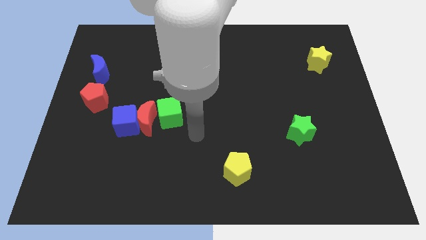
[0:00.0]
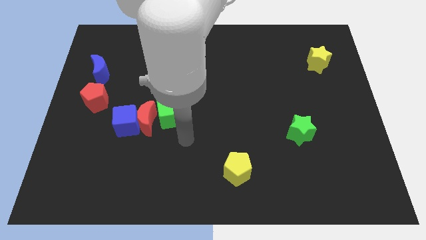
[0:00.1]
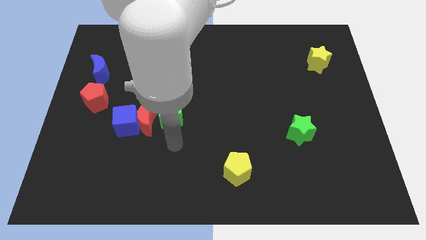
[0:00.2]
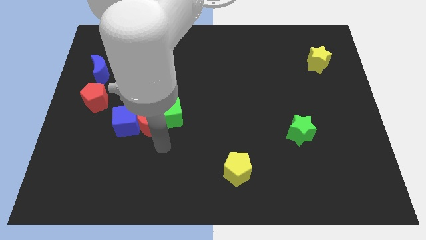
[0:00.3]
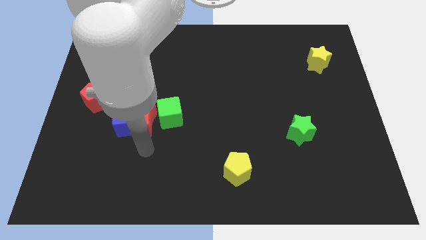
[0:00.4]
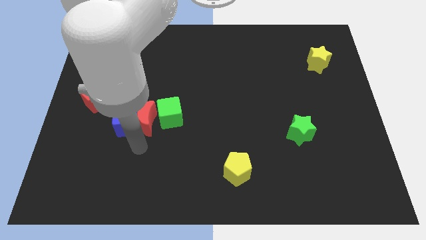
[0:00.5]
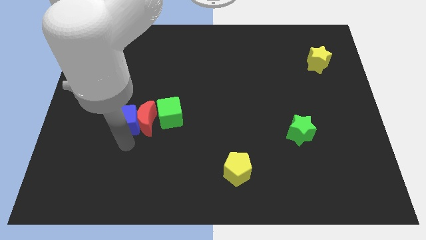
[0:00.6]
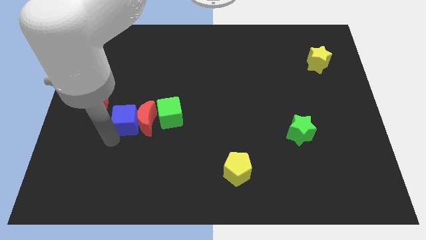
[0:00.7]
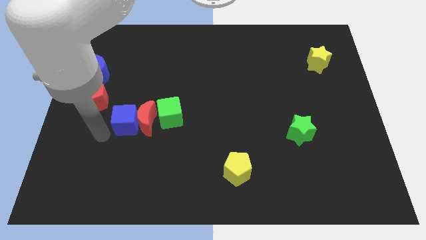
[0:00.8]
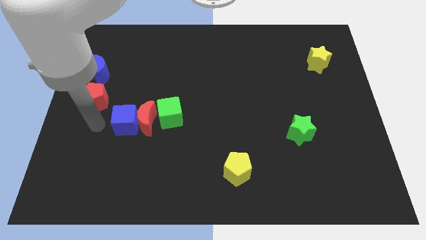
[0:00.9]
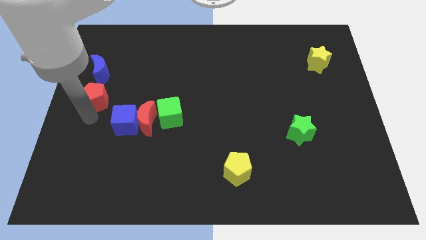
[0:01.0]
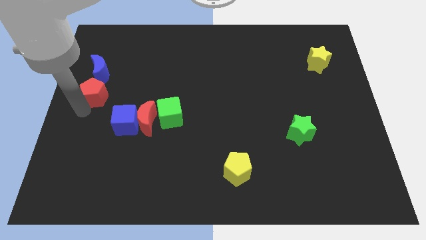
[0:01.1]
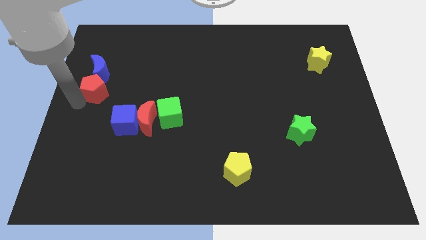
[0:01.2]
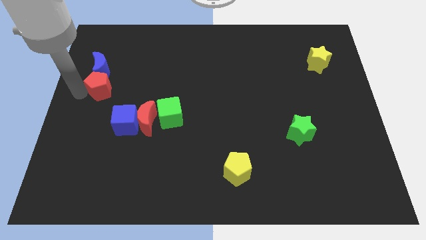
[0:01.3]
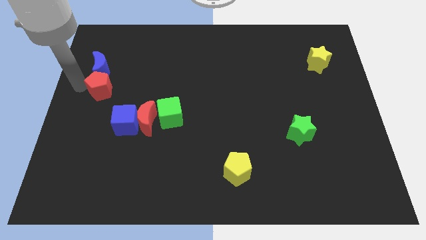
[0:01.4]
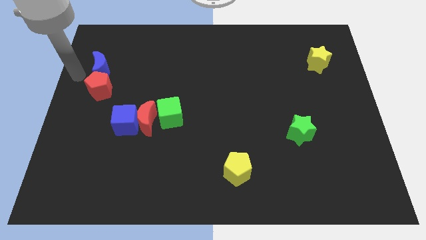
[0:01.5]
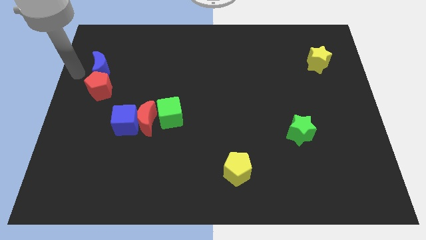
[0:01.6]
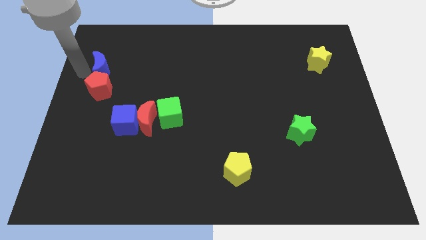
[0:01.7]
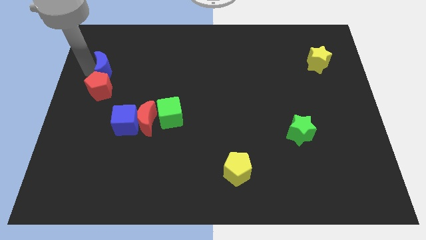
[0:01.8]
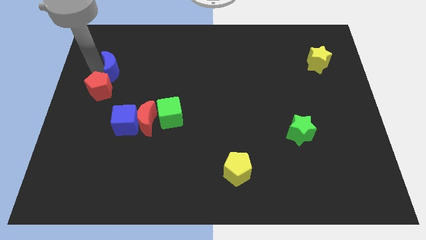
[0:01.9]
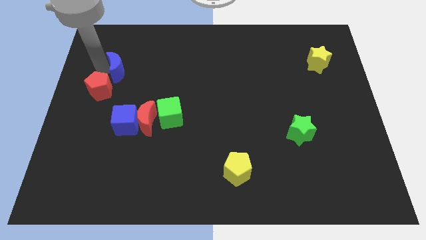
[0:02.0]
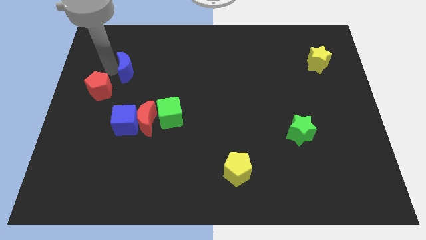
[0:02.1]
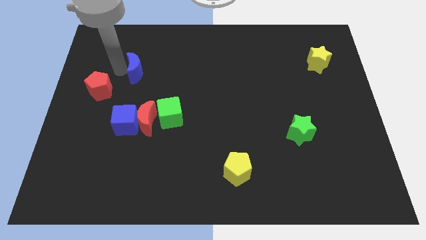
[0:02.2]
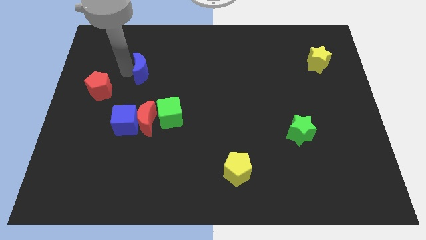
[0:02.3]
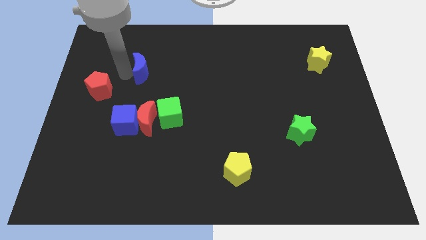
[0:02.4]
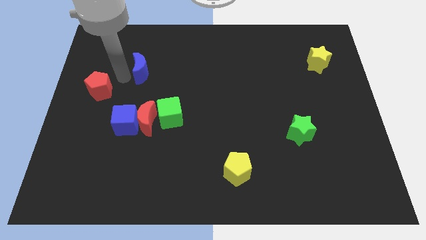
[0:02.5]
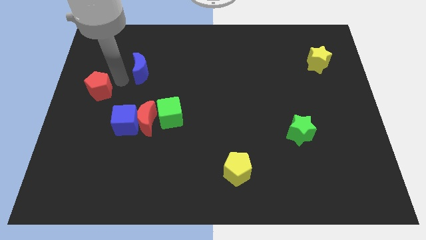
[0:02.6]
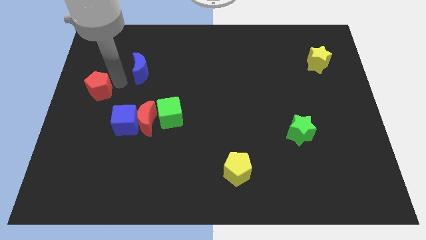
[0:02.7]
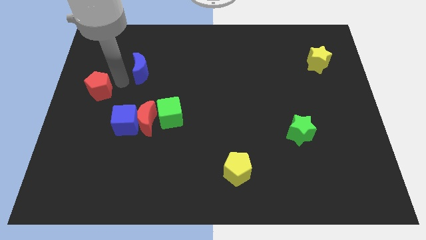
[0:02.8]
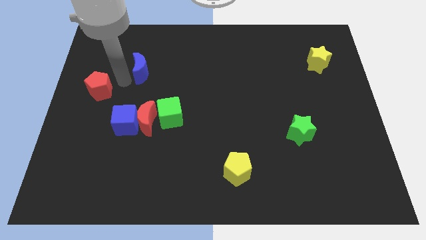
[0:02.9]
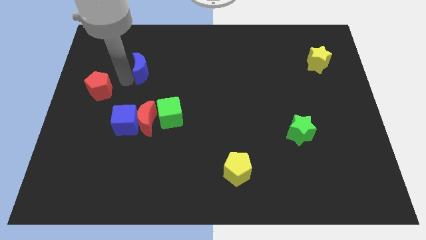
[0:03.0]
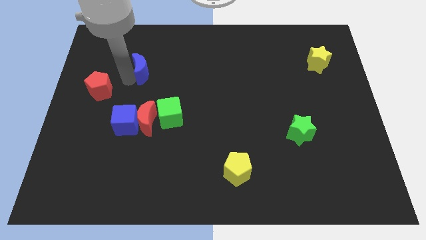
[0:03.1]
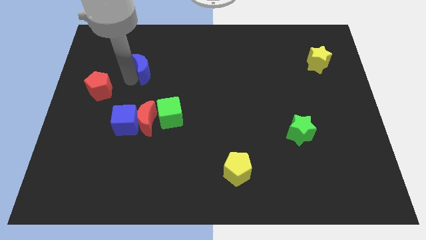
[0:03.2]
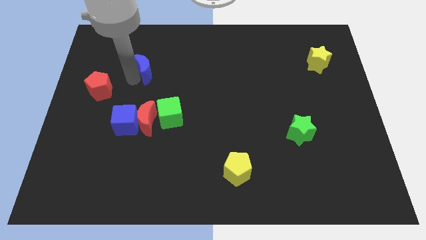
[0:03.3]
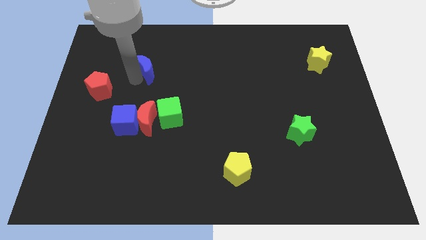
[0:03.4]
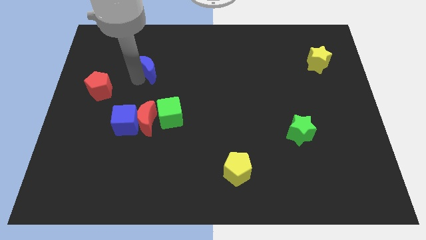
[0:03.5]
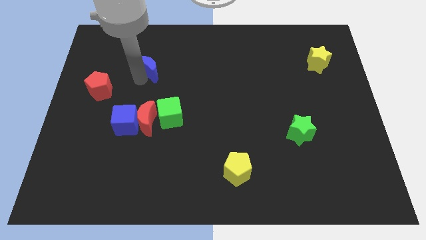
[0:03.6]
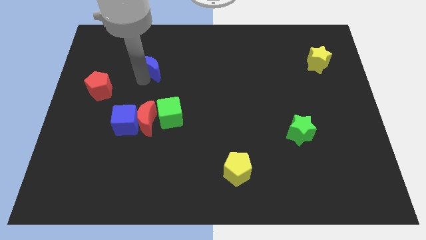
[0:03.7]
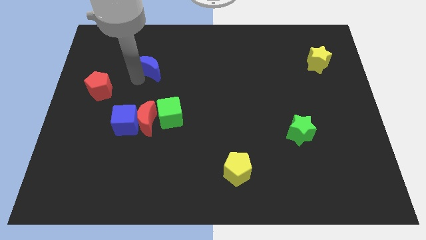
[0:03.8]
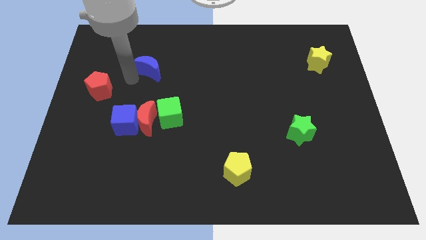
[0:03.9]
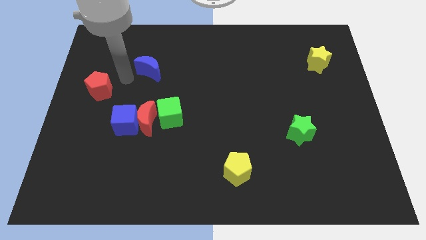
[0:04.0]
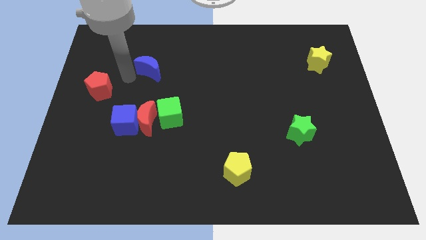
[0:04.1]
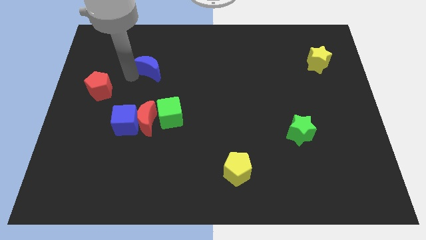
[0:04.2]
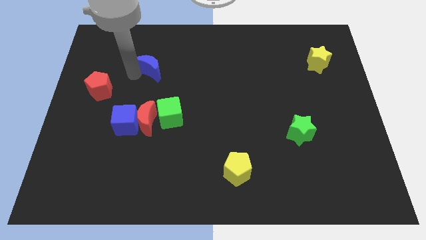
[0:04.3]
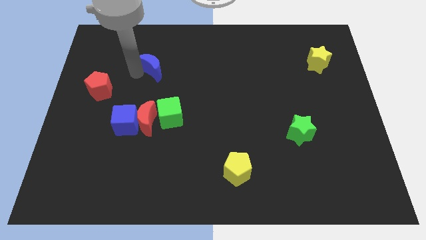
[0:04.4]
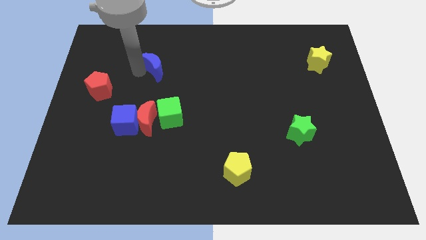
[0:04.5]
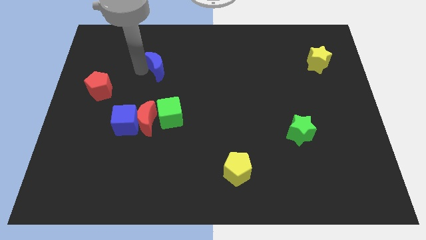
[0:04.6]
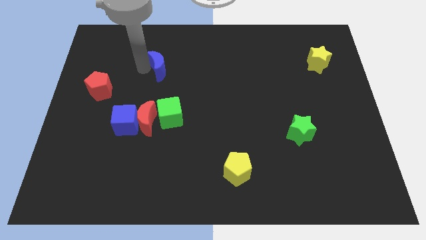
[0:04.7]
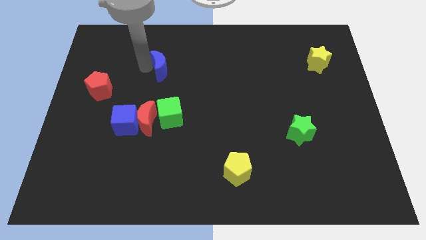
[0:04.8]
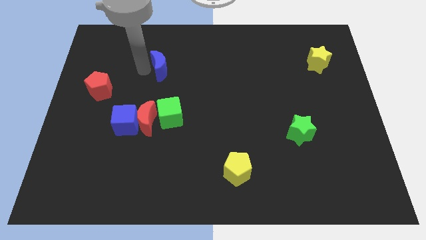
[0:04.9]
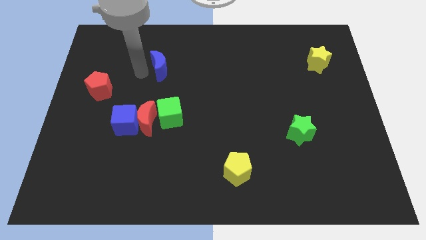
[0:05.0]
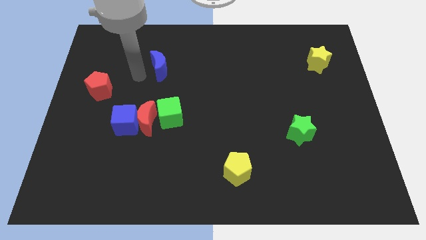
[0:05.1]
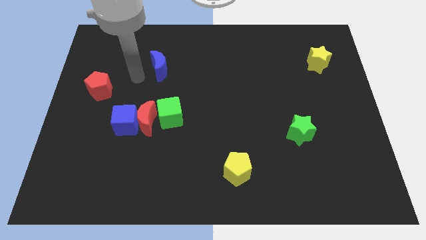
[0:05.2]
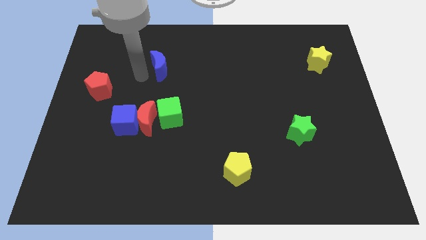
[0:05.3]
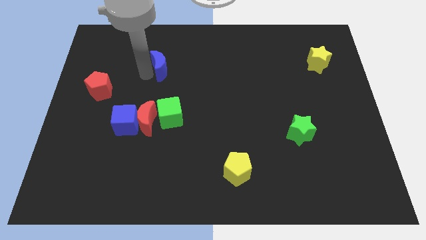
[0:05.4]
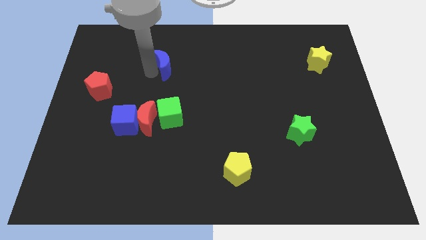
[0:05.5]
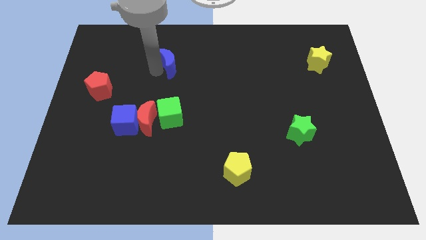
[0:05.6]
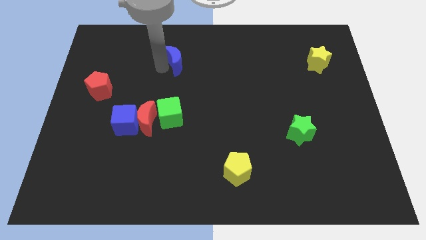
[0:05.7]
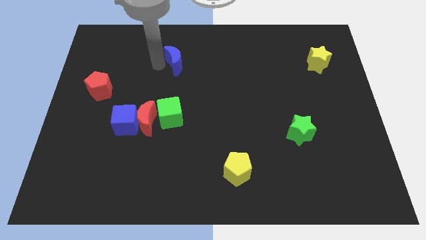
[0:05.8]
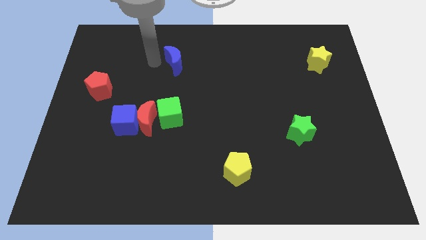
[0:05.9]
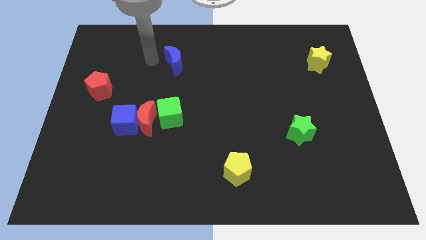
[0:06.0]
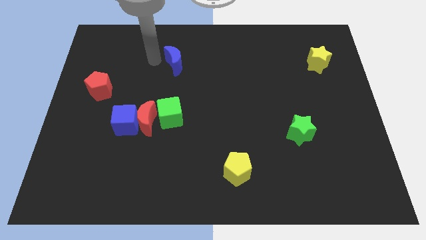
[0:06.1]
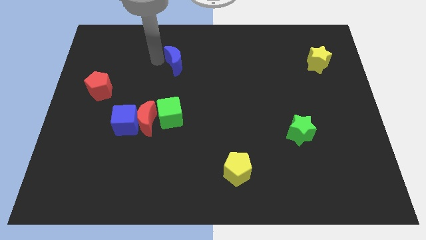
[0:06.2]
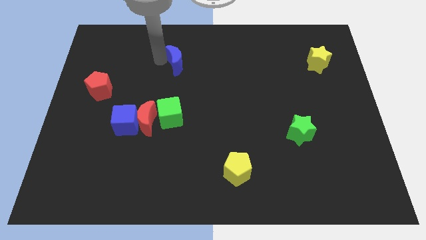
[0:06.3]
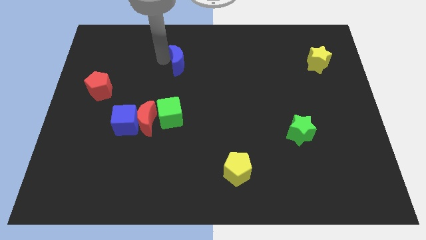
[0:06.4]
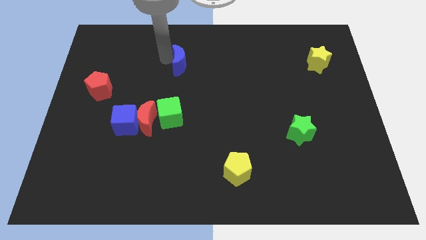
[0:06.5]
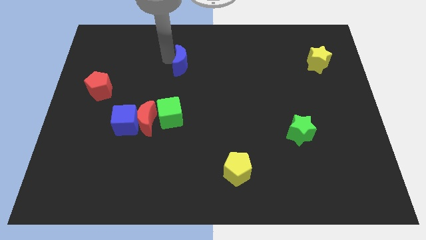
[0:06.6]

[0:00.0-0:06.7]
move the blue moon to the right

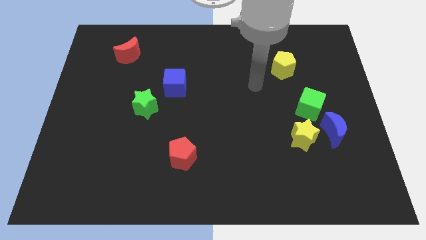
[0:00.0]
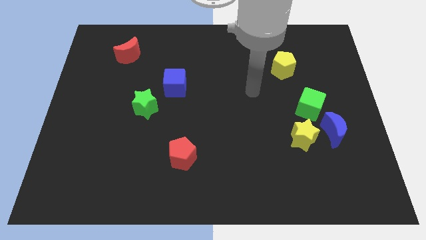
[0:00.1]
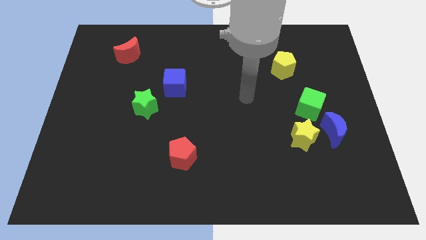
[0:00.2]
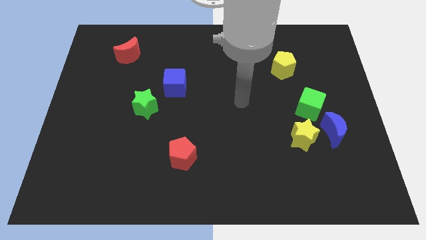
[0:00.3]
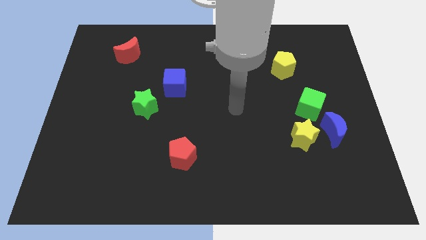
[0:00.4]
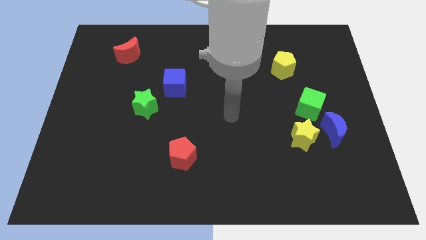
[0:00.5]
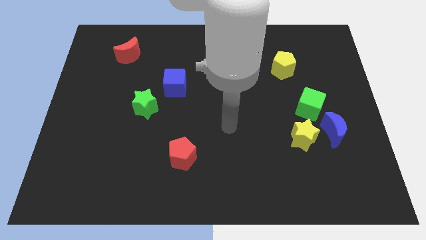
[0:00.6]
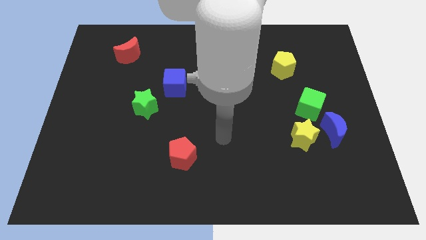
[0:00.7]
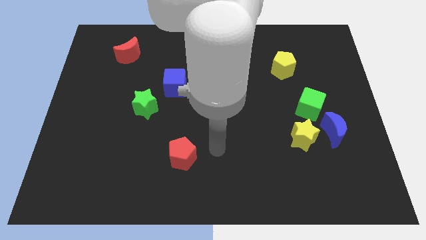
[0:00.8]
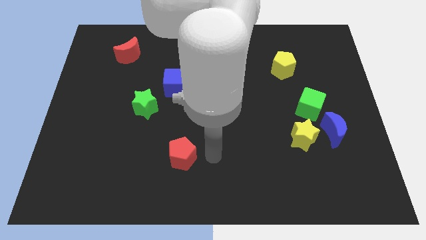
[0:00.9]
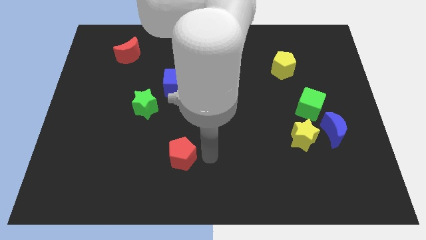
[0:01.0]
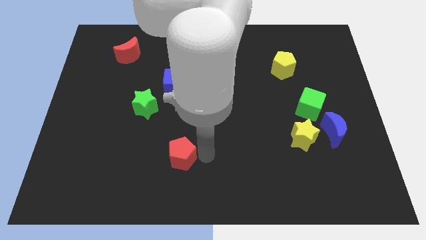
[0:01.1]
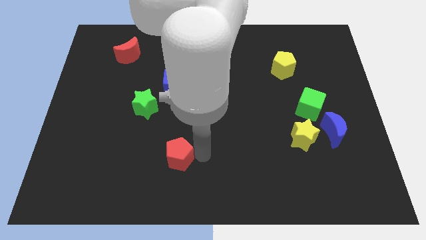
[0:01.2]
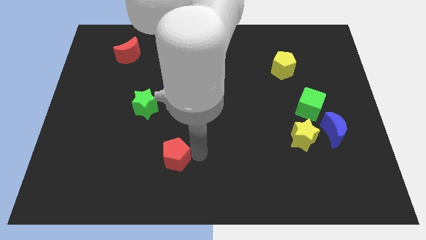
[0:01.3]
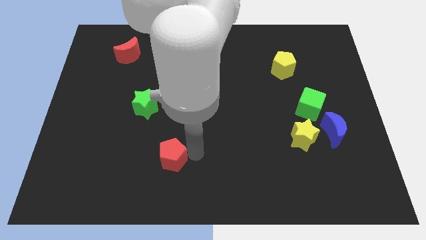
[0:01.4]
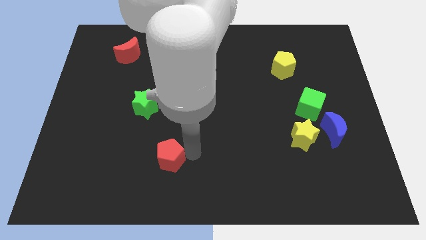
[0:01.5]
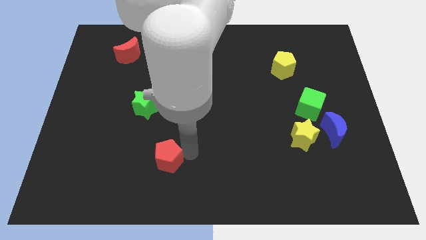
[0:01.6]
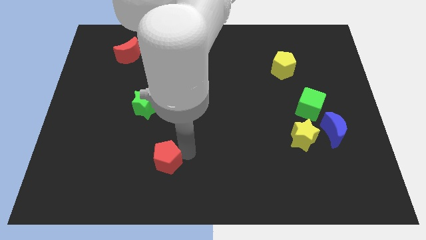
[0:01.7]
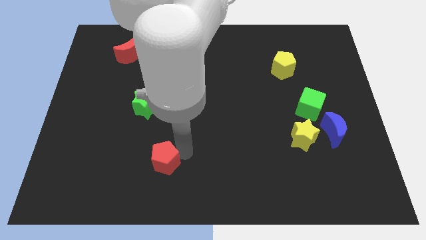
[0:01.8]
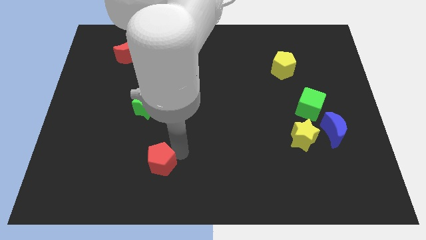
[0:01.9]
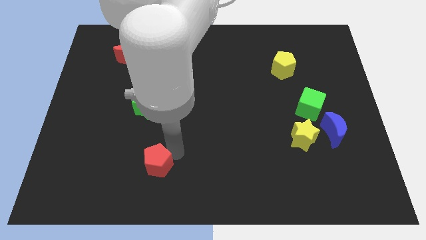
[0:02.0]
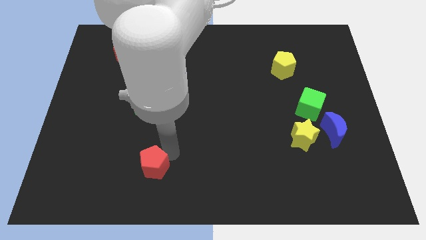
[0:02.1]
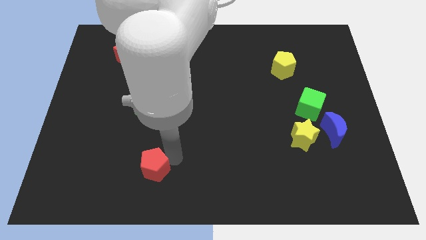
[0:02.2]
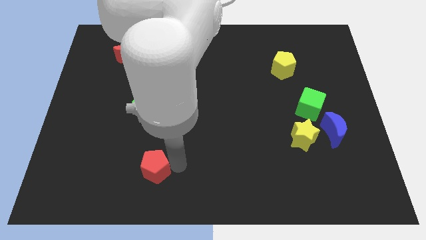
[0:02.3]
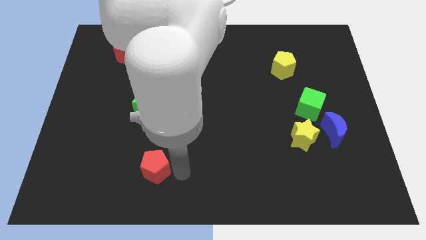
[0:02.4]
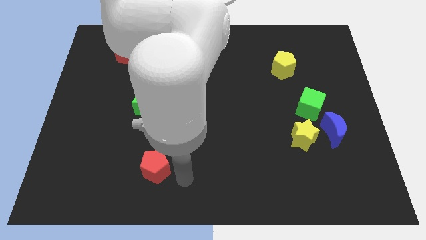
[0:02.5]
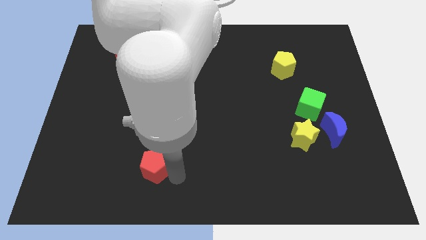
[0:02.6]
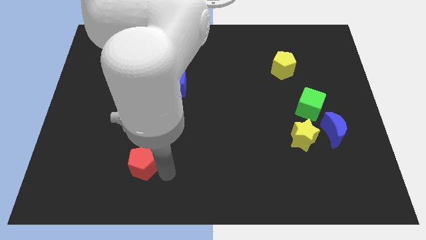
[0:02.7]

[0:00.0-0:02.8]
move the red pentagon a little left
